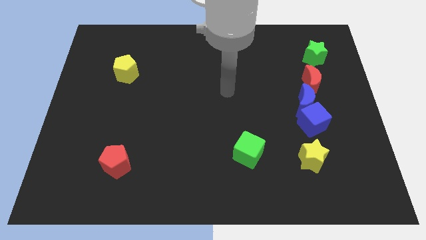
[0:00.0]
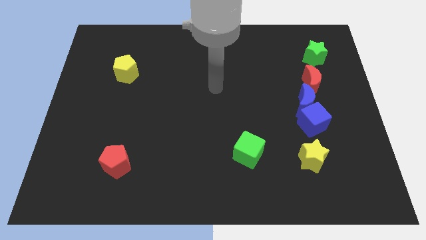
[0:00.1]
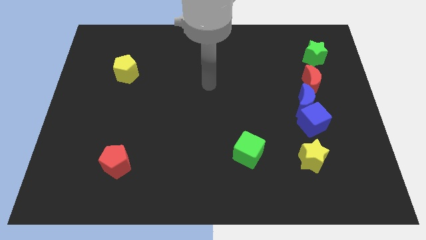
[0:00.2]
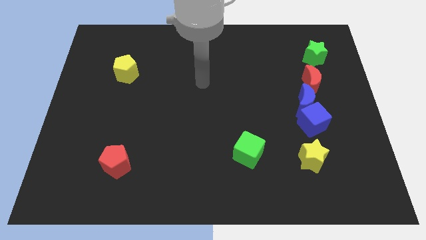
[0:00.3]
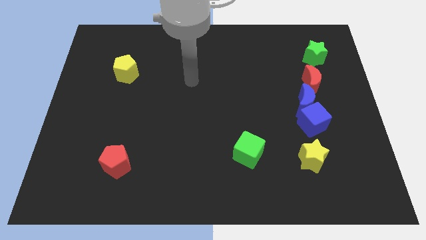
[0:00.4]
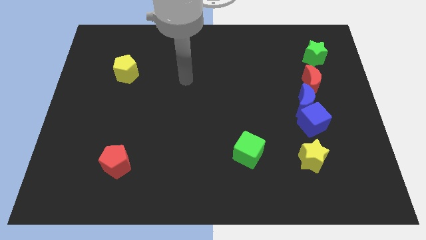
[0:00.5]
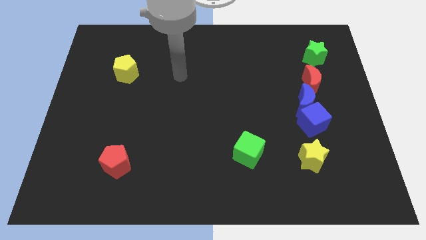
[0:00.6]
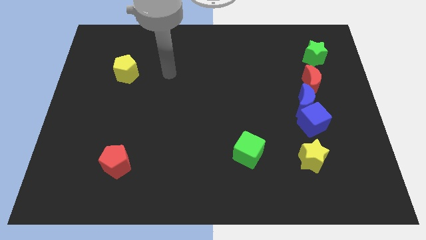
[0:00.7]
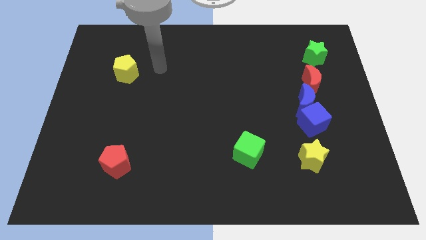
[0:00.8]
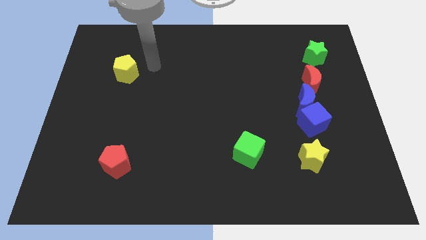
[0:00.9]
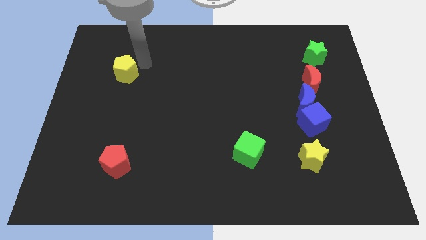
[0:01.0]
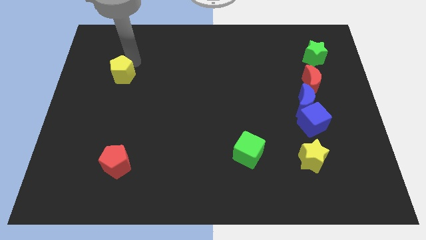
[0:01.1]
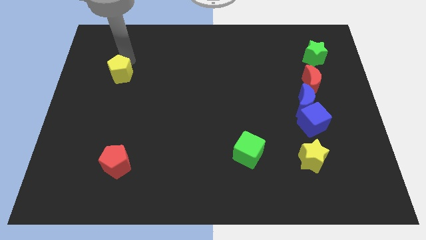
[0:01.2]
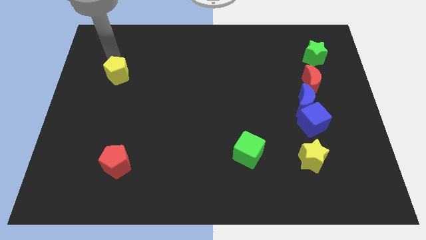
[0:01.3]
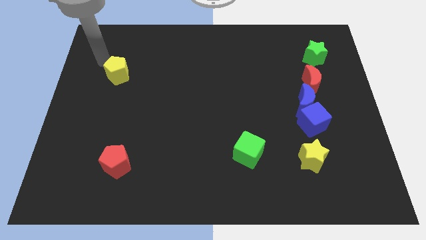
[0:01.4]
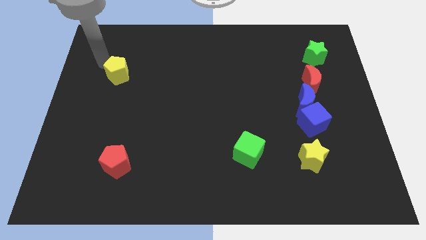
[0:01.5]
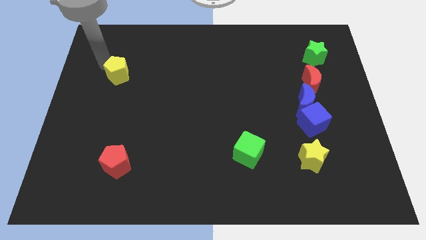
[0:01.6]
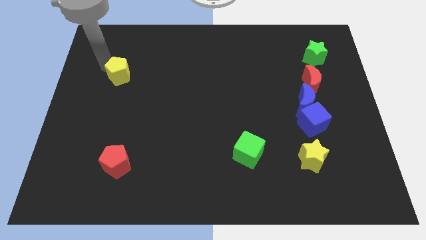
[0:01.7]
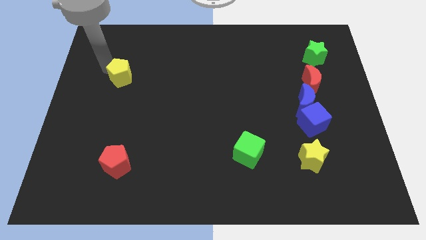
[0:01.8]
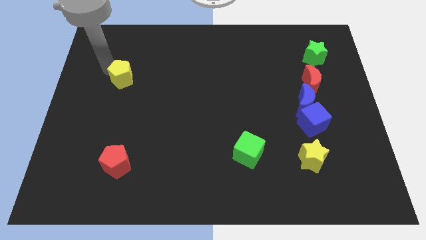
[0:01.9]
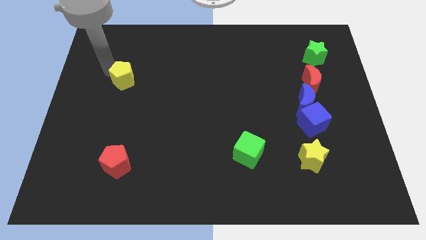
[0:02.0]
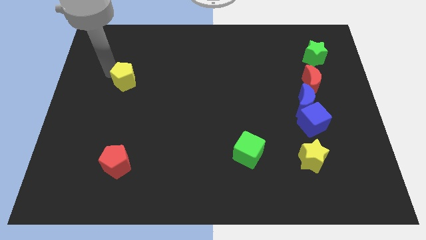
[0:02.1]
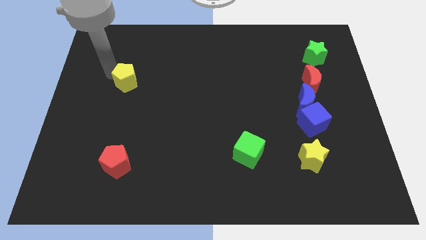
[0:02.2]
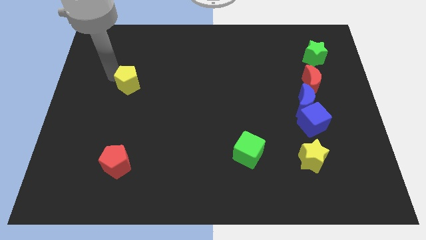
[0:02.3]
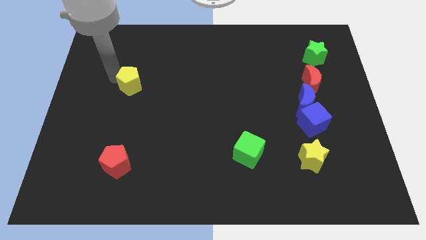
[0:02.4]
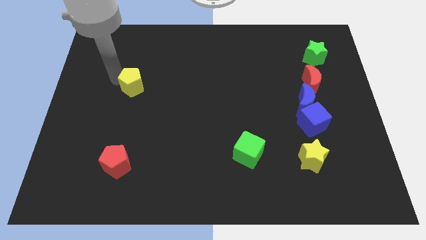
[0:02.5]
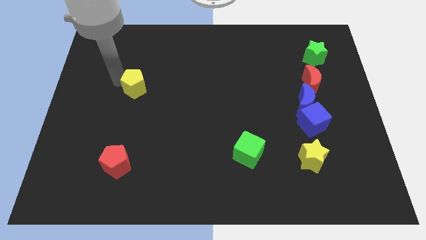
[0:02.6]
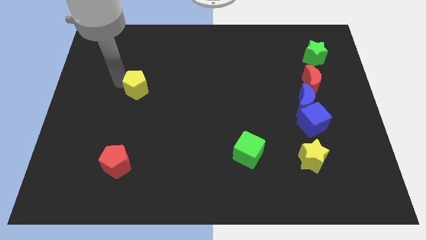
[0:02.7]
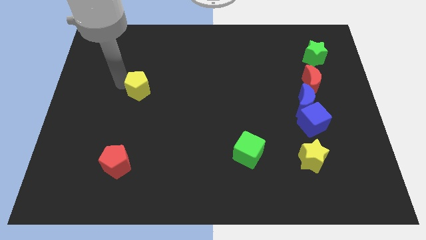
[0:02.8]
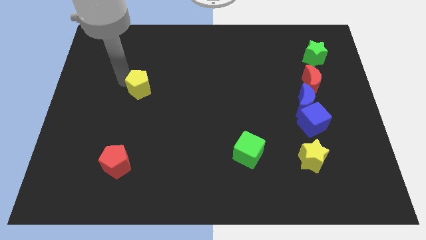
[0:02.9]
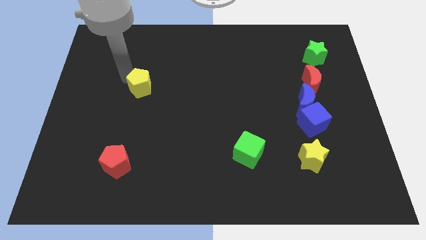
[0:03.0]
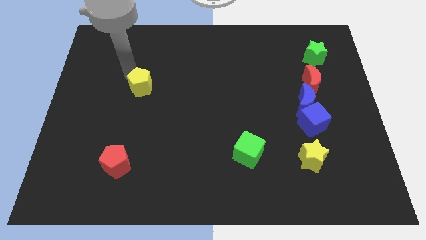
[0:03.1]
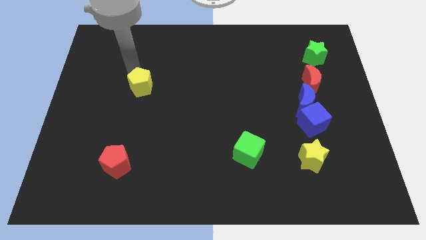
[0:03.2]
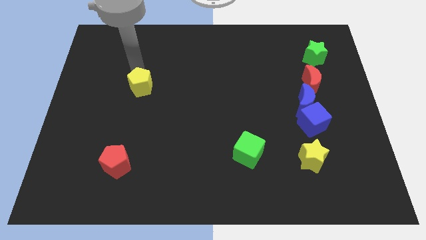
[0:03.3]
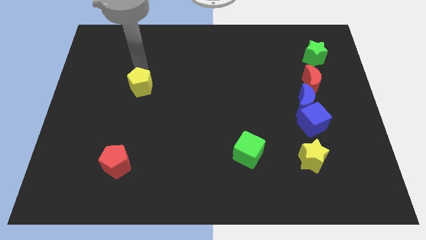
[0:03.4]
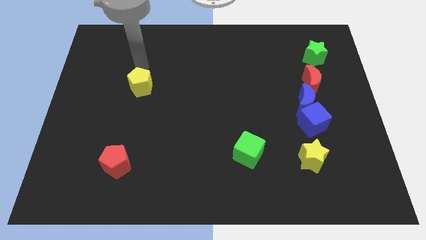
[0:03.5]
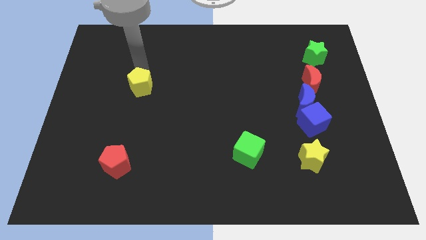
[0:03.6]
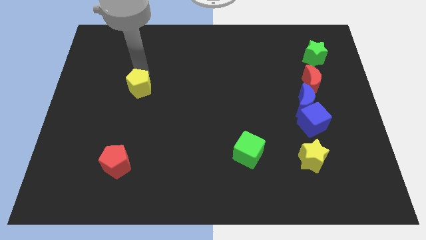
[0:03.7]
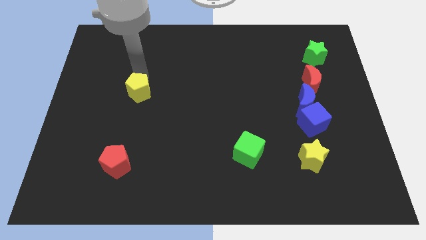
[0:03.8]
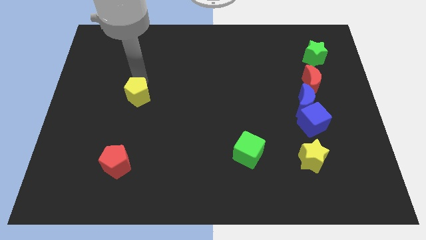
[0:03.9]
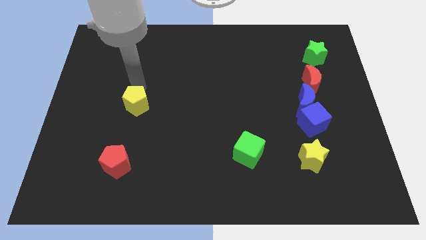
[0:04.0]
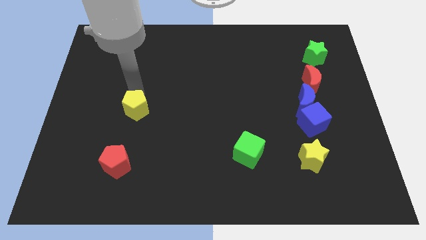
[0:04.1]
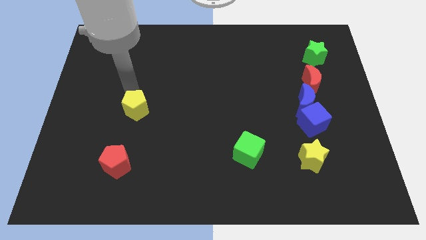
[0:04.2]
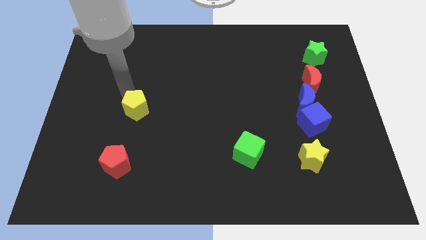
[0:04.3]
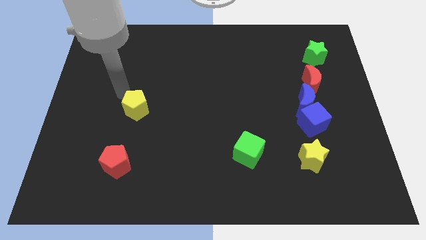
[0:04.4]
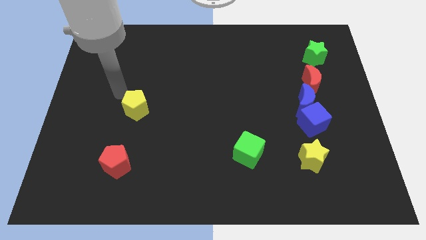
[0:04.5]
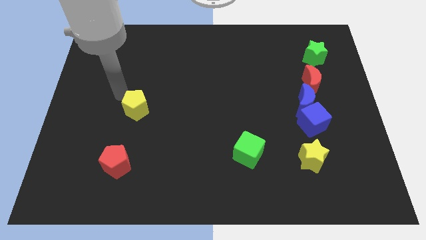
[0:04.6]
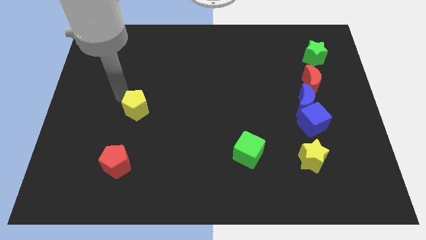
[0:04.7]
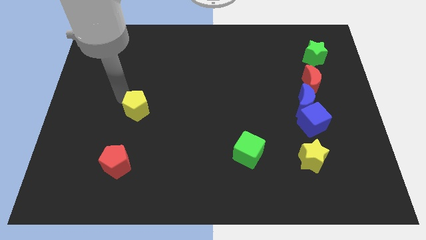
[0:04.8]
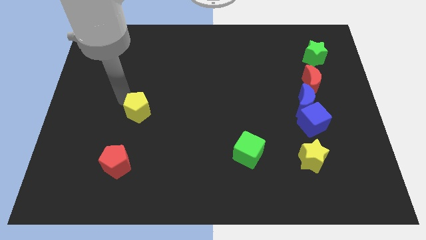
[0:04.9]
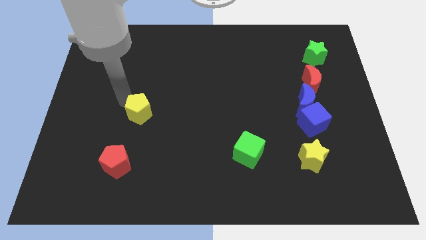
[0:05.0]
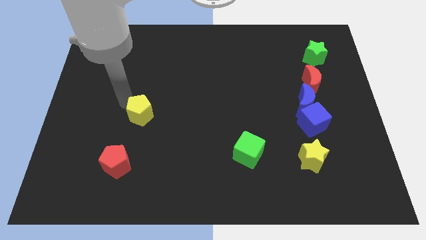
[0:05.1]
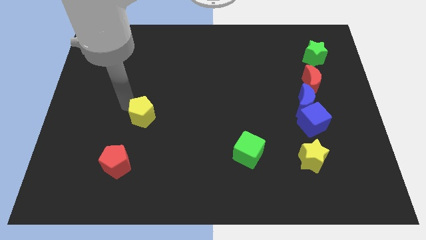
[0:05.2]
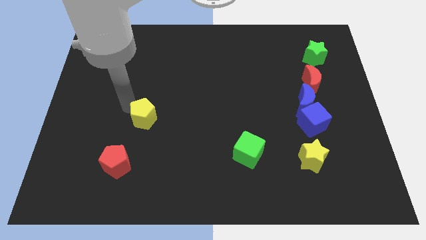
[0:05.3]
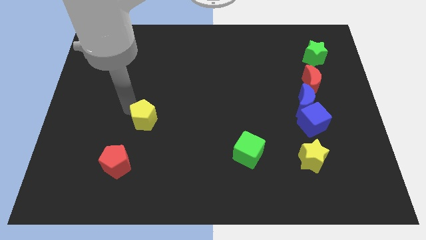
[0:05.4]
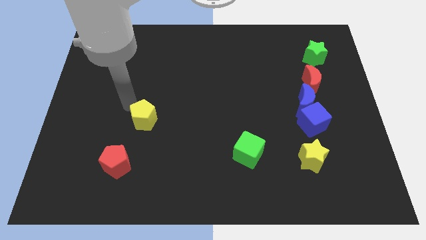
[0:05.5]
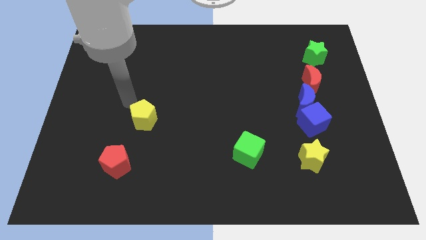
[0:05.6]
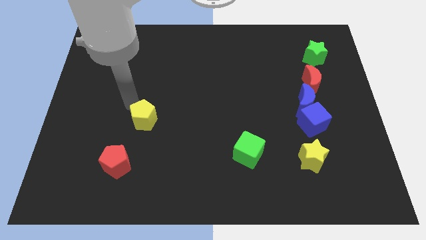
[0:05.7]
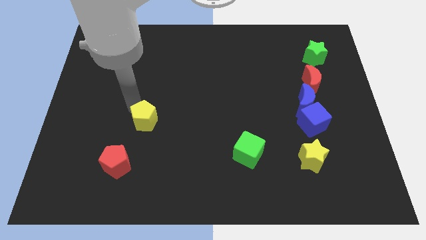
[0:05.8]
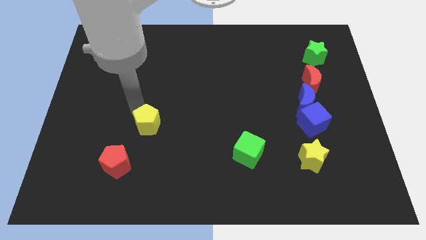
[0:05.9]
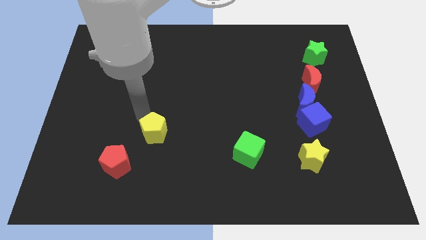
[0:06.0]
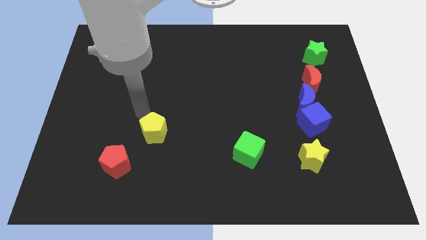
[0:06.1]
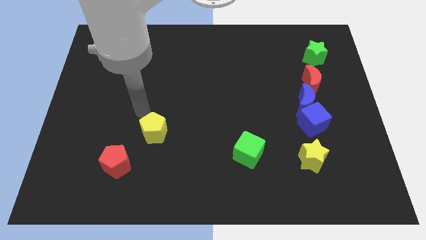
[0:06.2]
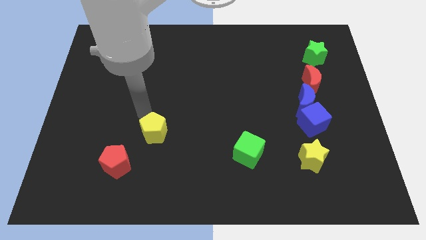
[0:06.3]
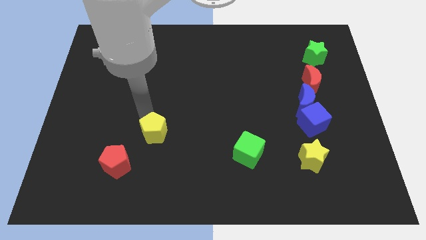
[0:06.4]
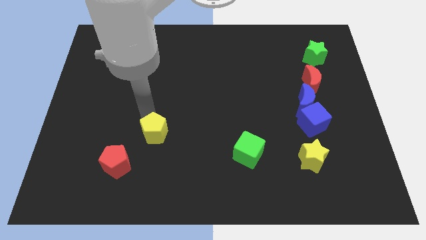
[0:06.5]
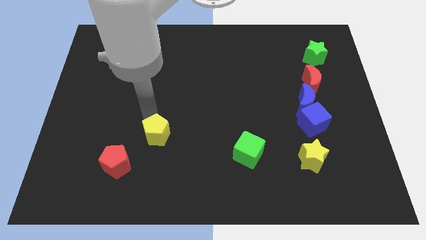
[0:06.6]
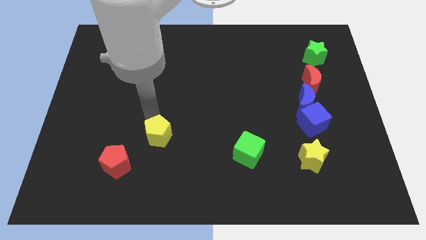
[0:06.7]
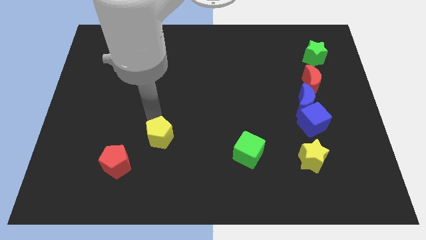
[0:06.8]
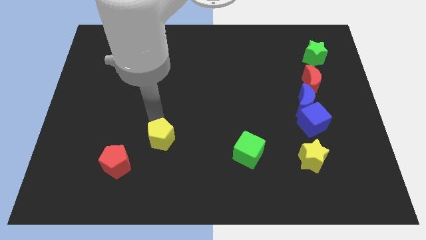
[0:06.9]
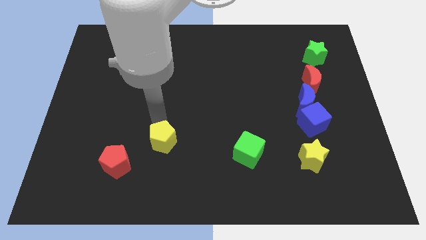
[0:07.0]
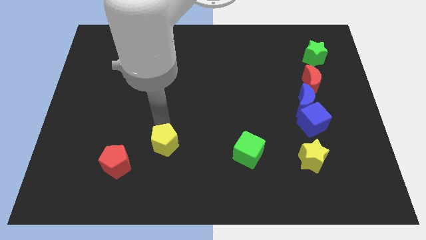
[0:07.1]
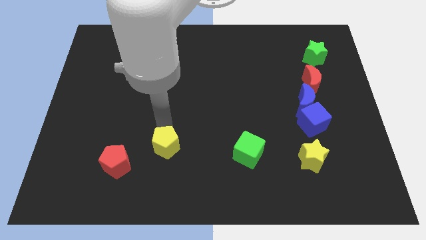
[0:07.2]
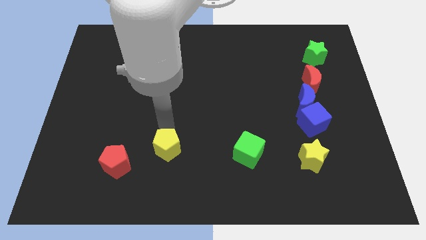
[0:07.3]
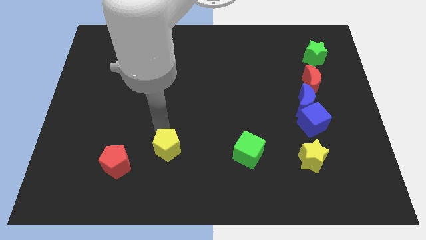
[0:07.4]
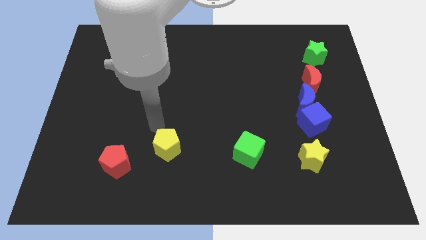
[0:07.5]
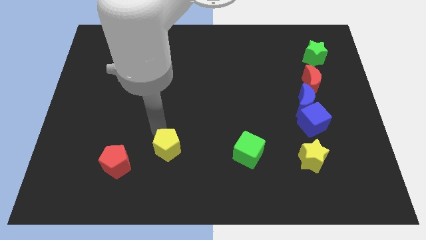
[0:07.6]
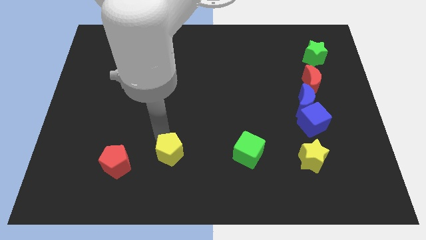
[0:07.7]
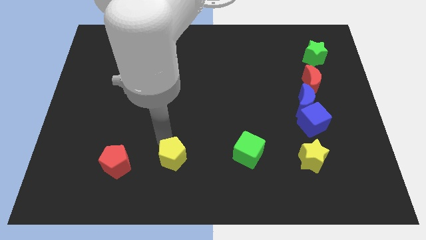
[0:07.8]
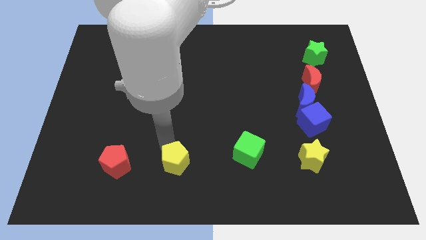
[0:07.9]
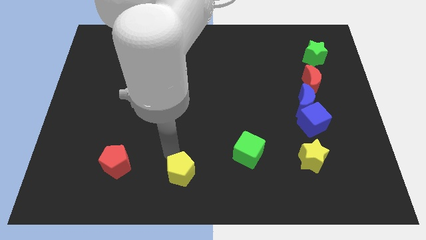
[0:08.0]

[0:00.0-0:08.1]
slide the yellow pentagon to the bottom side
